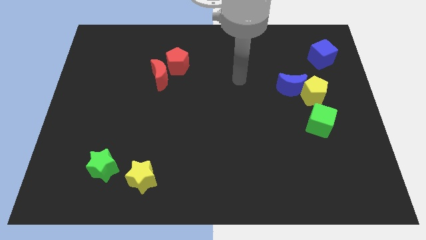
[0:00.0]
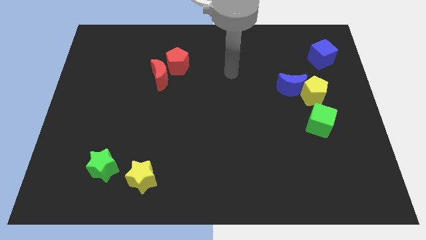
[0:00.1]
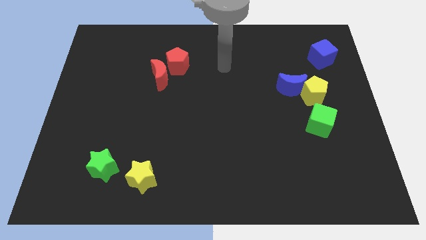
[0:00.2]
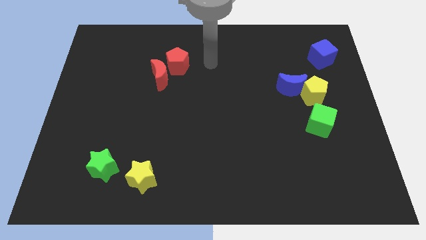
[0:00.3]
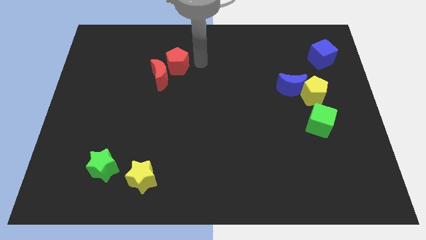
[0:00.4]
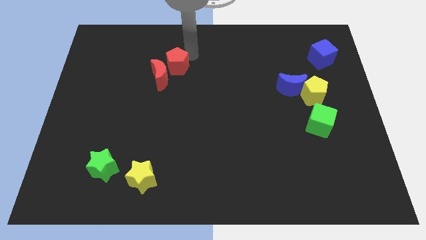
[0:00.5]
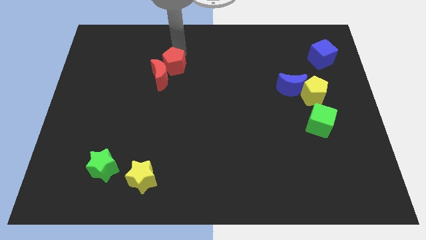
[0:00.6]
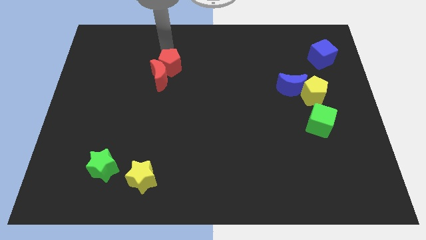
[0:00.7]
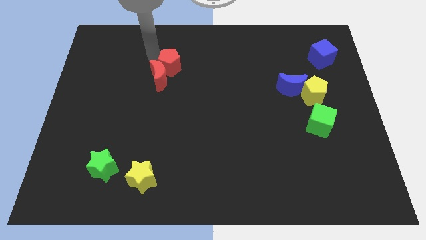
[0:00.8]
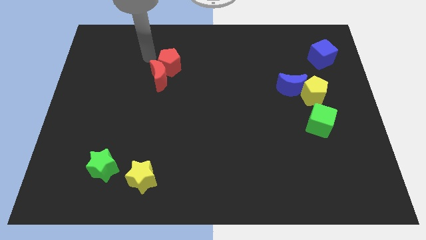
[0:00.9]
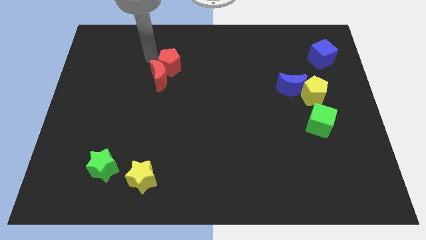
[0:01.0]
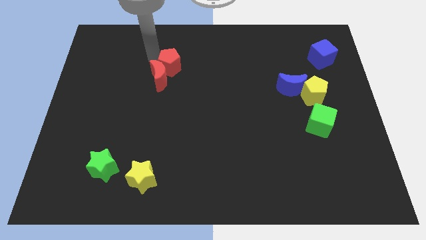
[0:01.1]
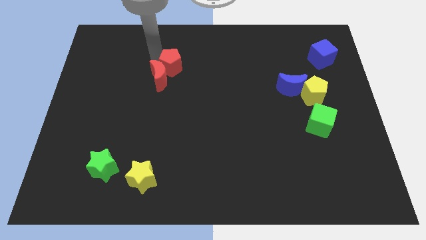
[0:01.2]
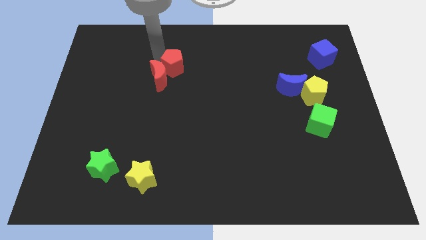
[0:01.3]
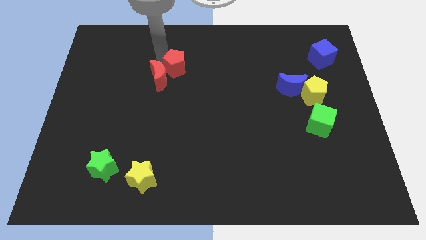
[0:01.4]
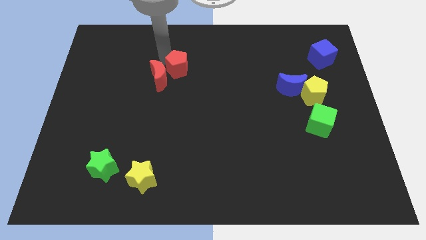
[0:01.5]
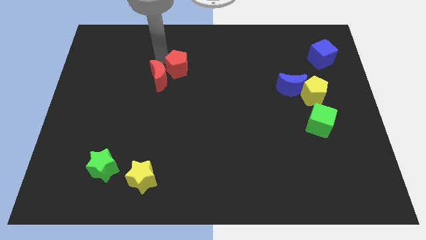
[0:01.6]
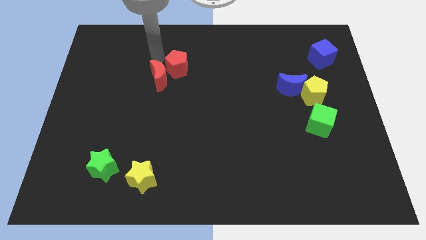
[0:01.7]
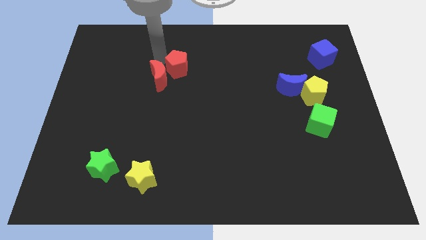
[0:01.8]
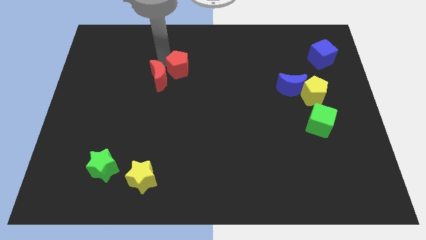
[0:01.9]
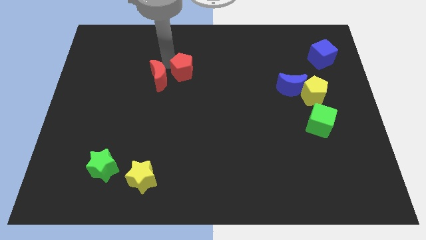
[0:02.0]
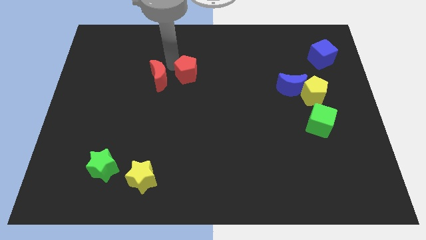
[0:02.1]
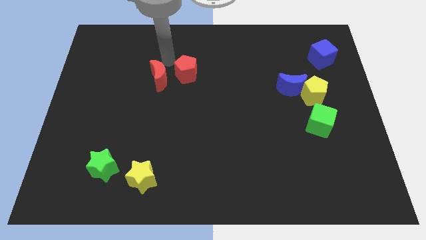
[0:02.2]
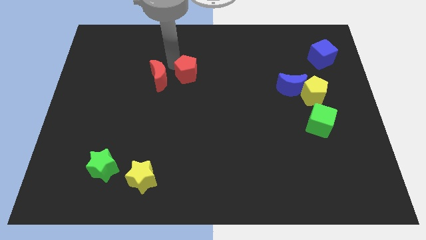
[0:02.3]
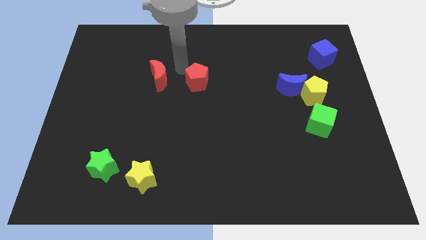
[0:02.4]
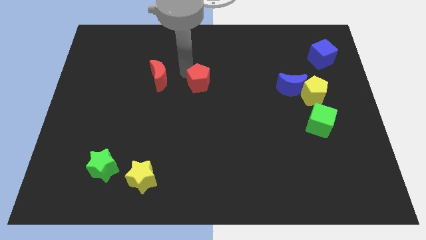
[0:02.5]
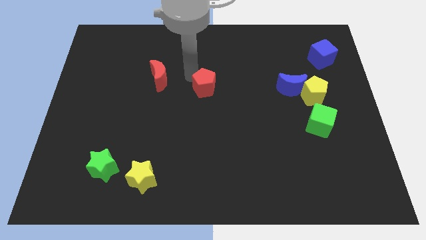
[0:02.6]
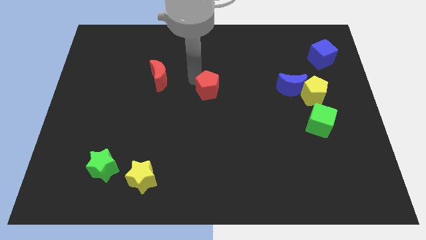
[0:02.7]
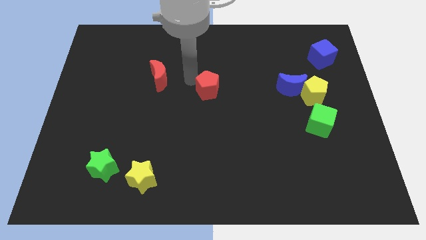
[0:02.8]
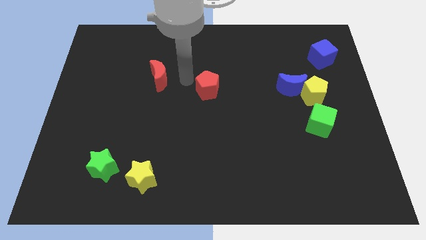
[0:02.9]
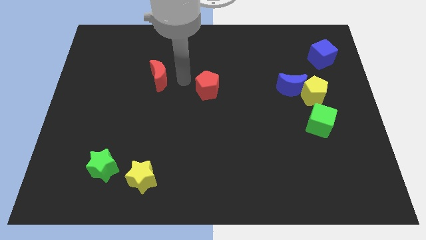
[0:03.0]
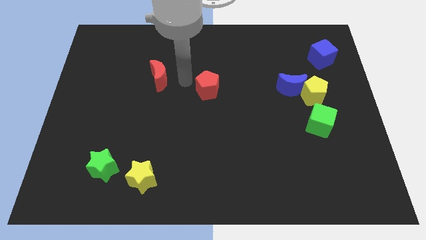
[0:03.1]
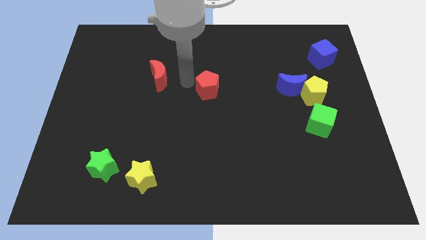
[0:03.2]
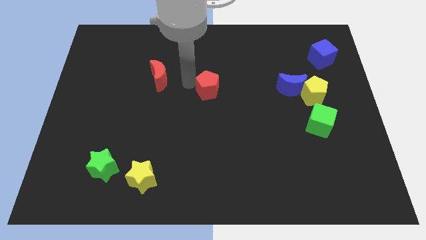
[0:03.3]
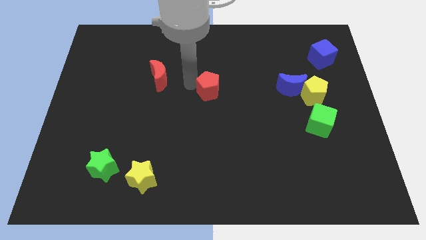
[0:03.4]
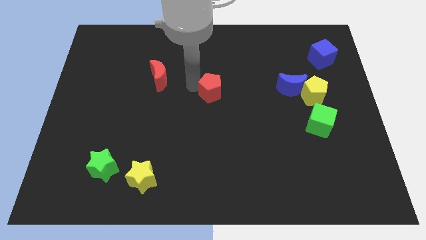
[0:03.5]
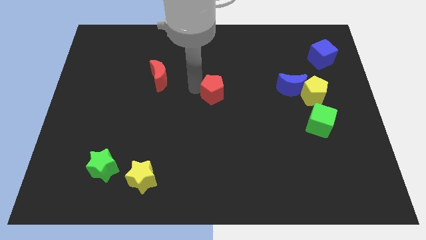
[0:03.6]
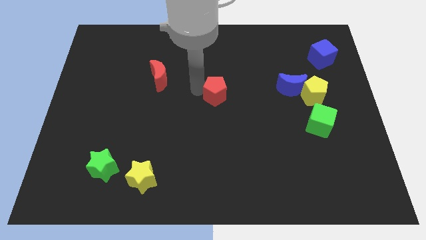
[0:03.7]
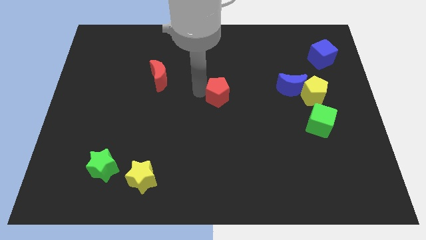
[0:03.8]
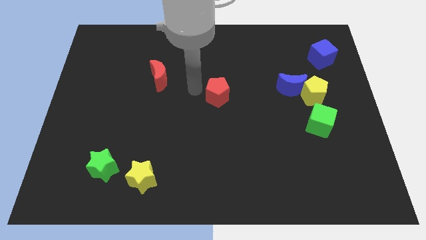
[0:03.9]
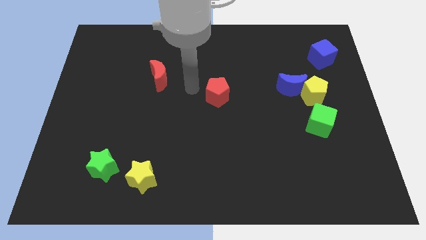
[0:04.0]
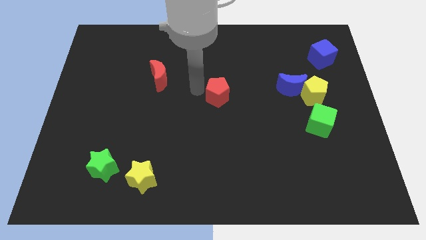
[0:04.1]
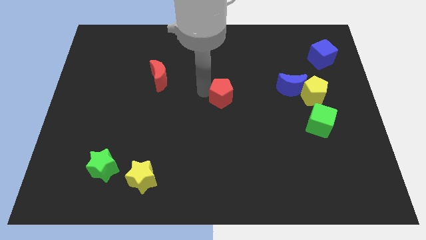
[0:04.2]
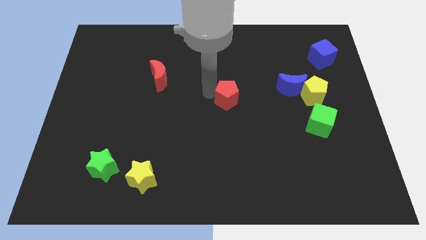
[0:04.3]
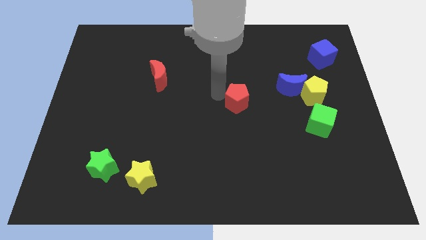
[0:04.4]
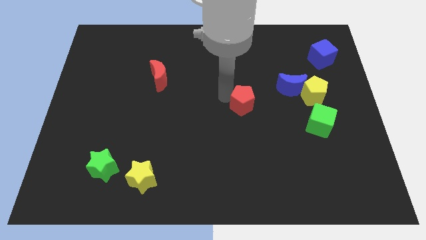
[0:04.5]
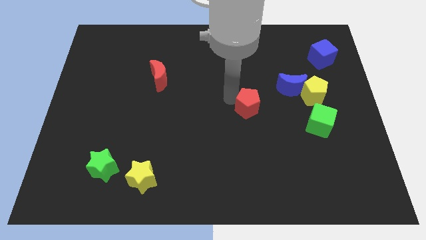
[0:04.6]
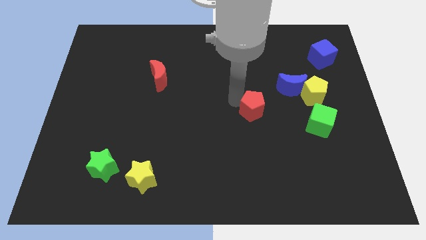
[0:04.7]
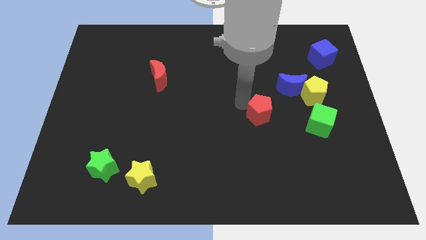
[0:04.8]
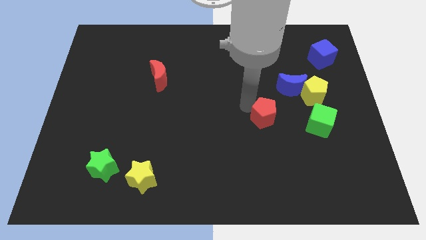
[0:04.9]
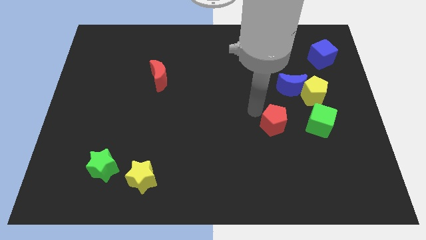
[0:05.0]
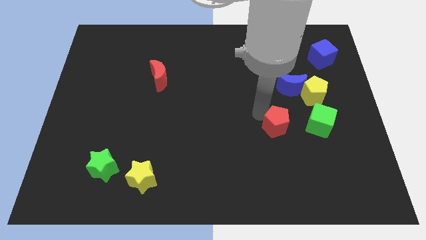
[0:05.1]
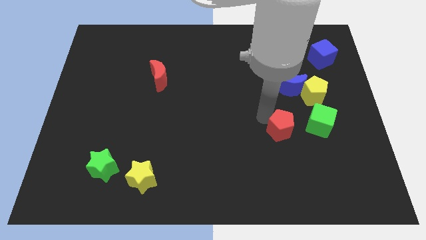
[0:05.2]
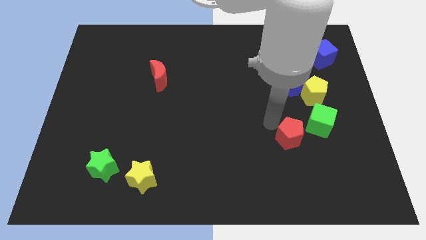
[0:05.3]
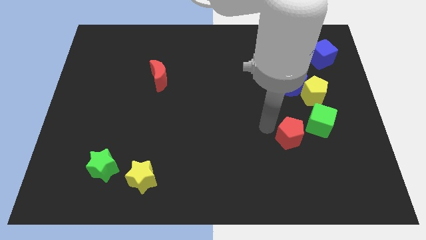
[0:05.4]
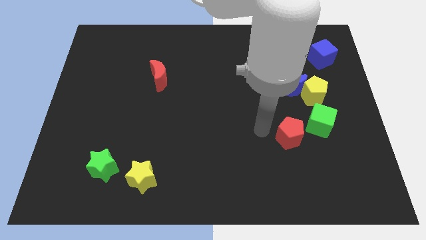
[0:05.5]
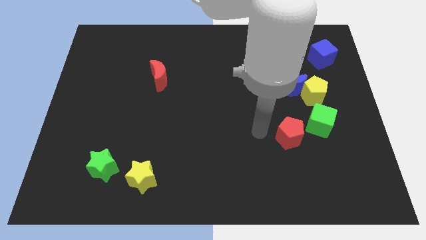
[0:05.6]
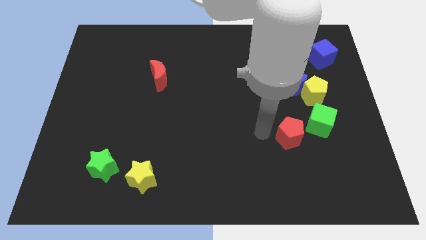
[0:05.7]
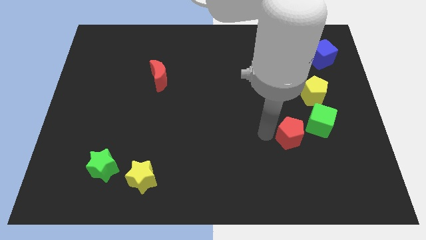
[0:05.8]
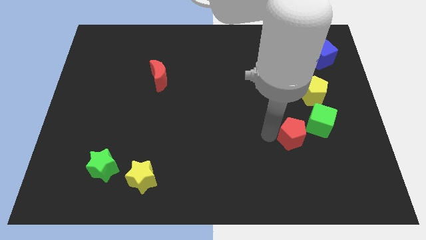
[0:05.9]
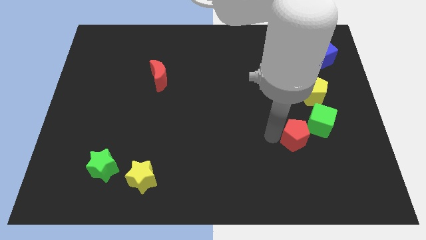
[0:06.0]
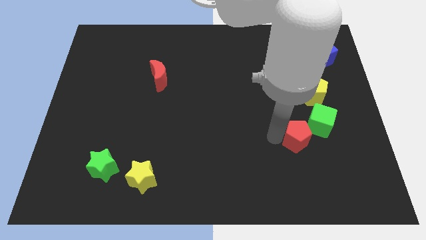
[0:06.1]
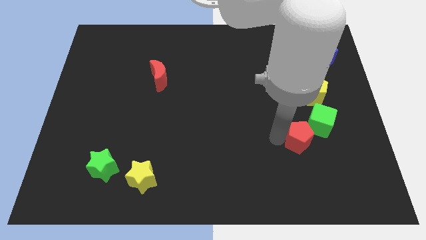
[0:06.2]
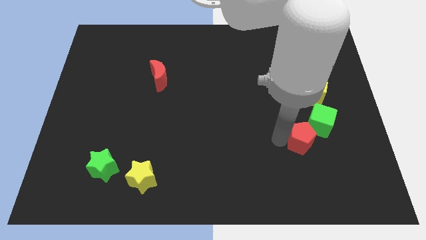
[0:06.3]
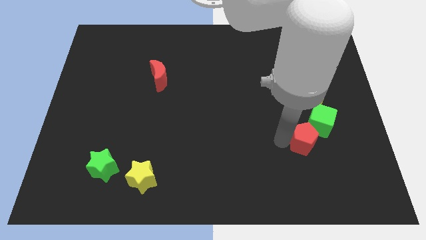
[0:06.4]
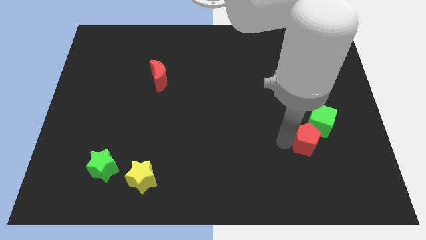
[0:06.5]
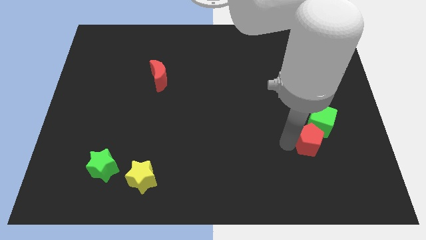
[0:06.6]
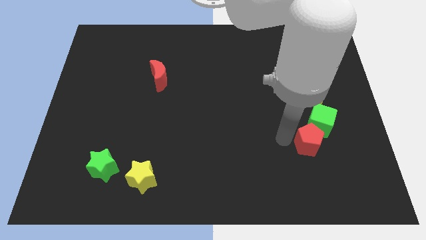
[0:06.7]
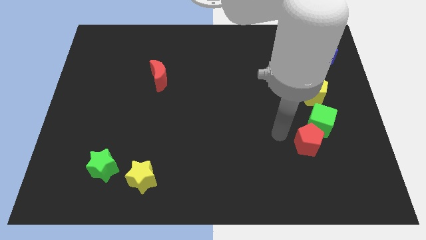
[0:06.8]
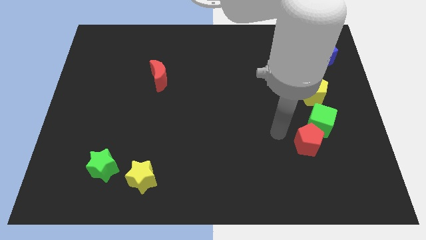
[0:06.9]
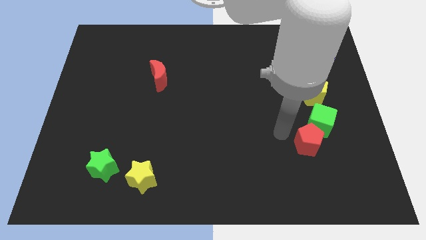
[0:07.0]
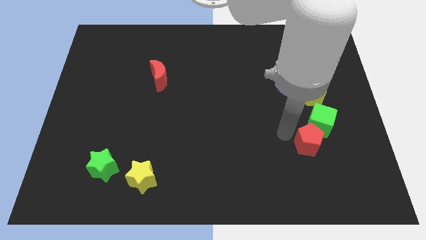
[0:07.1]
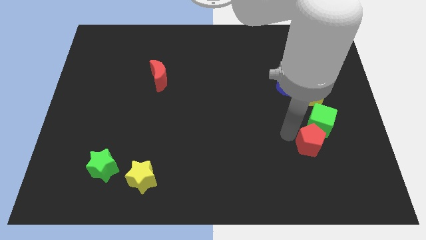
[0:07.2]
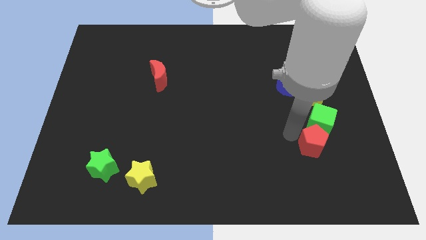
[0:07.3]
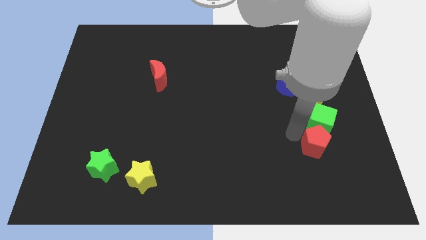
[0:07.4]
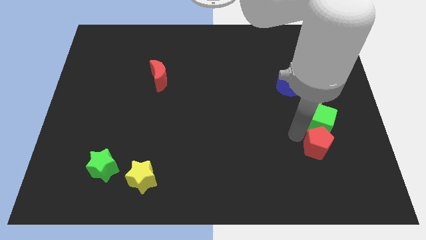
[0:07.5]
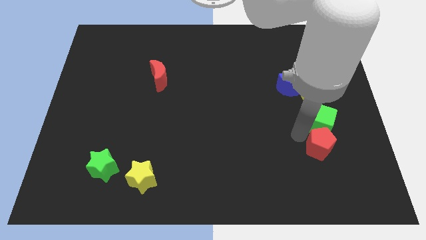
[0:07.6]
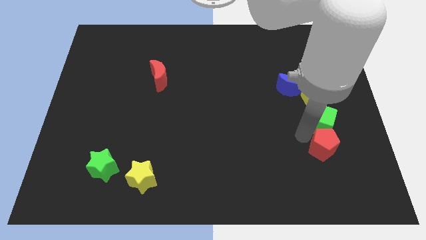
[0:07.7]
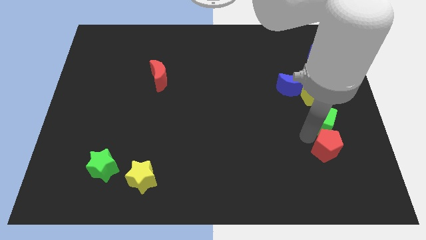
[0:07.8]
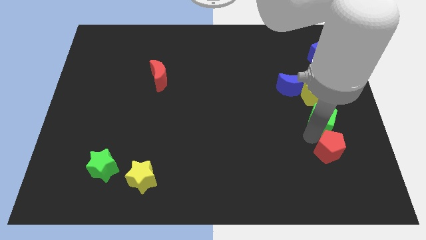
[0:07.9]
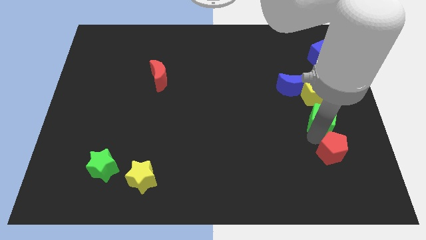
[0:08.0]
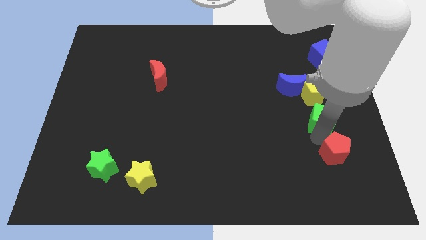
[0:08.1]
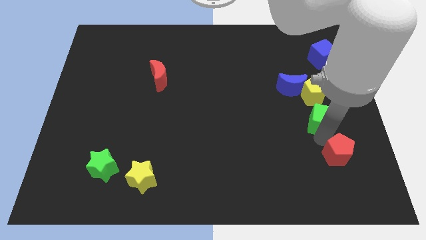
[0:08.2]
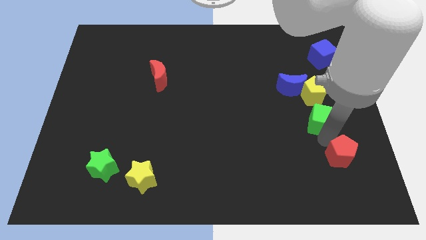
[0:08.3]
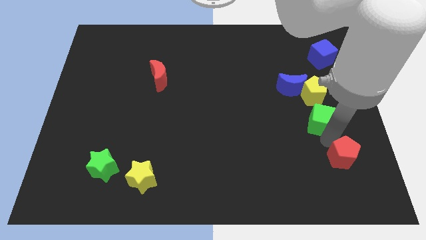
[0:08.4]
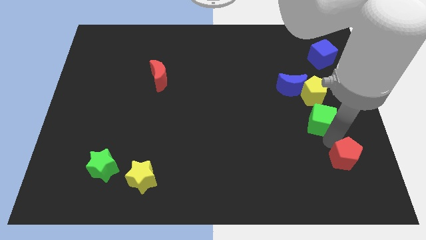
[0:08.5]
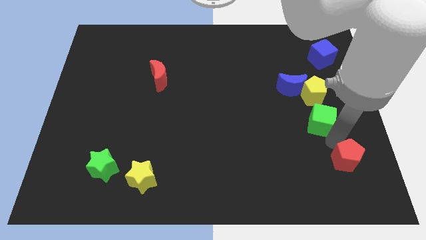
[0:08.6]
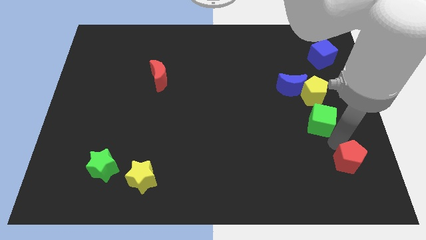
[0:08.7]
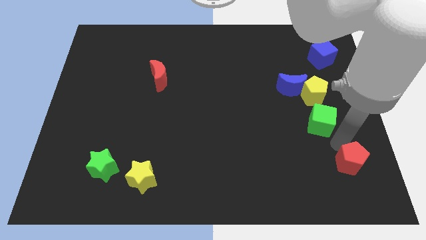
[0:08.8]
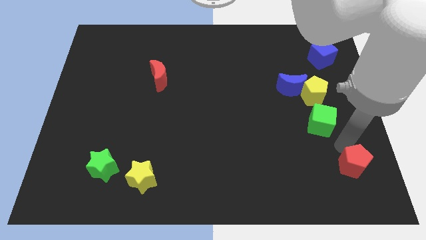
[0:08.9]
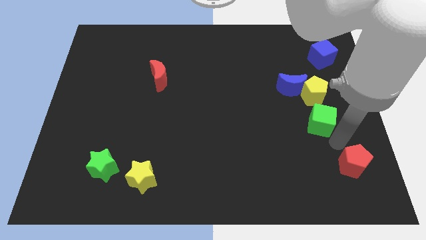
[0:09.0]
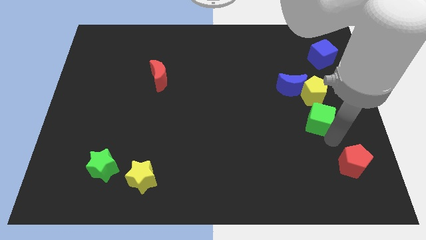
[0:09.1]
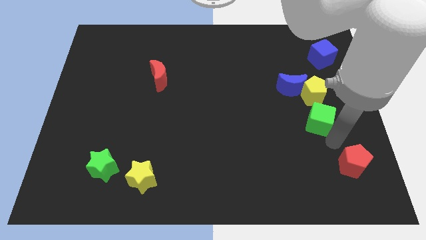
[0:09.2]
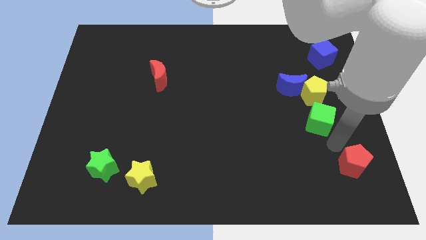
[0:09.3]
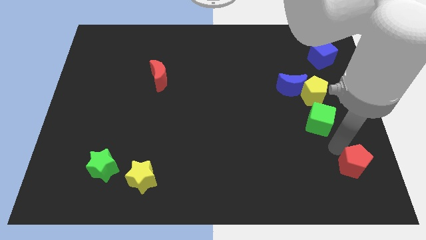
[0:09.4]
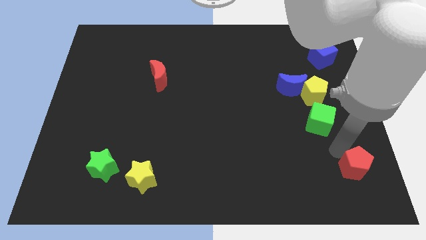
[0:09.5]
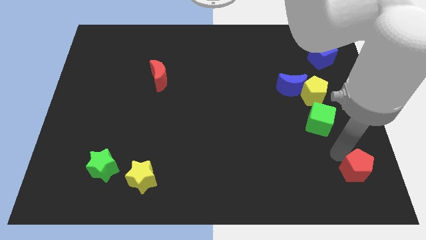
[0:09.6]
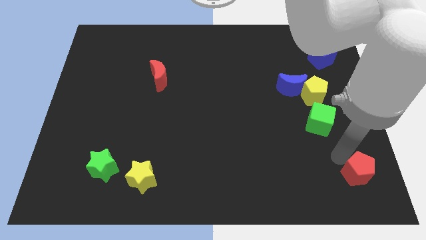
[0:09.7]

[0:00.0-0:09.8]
move the red pentagon to the bottom right of the board
